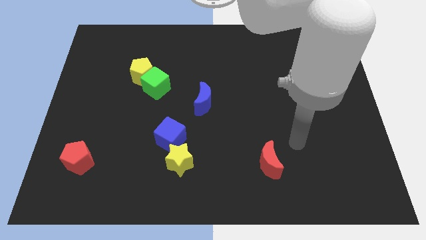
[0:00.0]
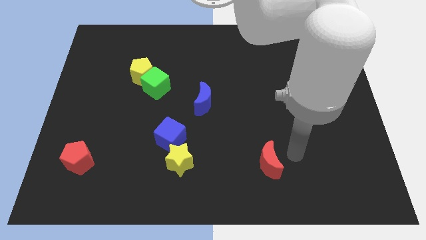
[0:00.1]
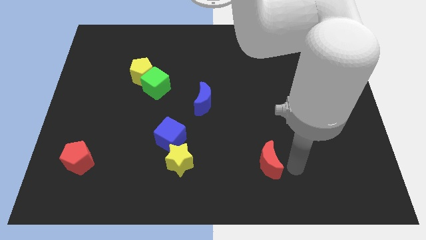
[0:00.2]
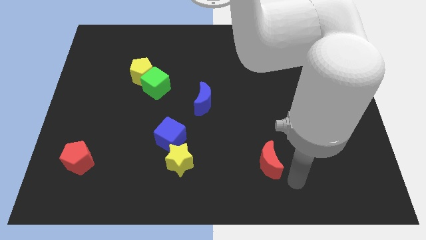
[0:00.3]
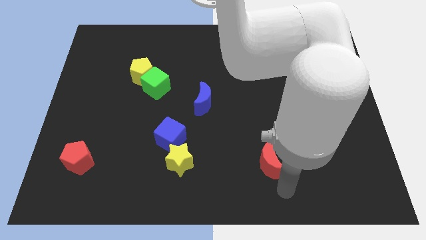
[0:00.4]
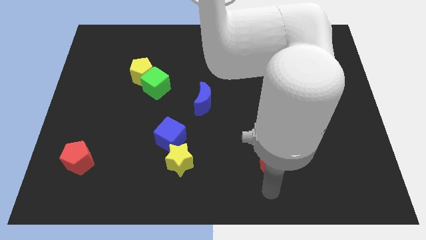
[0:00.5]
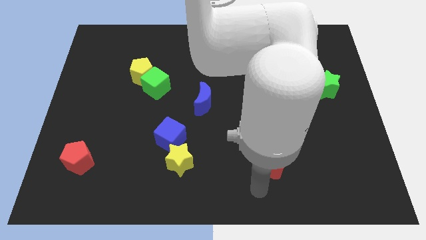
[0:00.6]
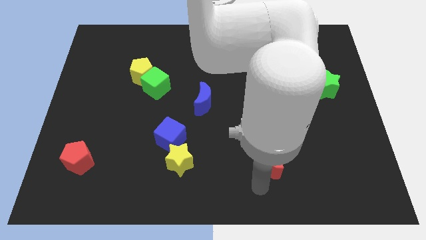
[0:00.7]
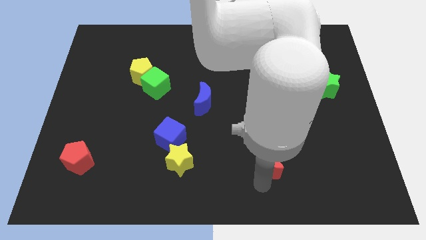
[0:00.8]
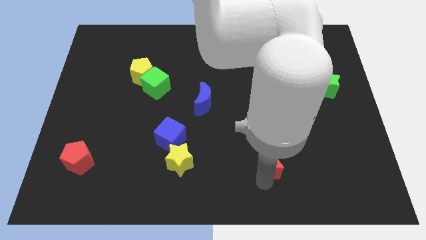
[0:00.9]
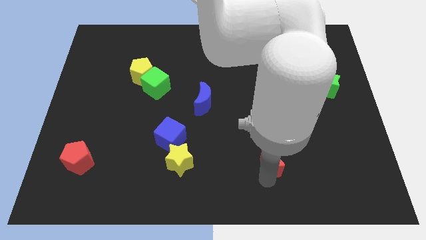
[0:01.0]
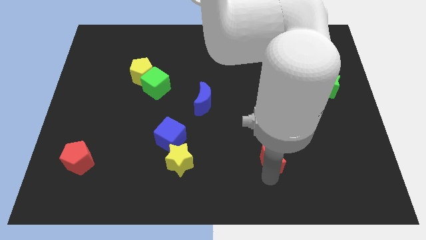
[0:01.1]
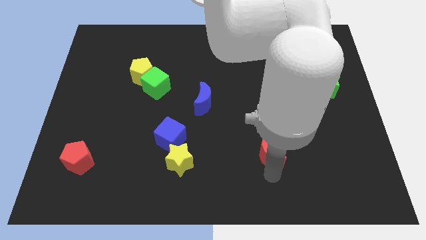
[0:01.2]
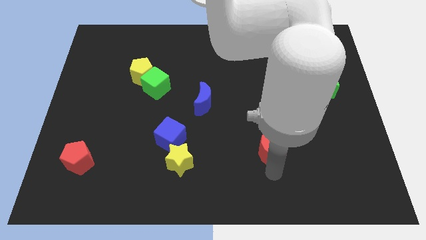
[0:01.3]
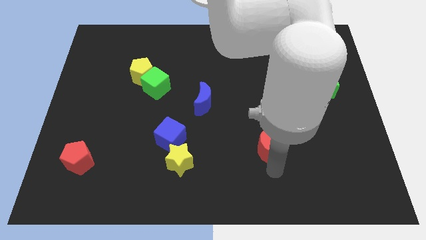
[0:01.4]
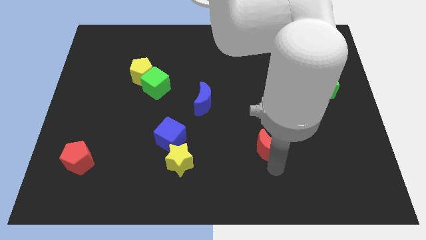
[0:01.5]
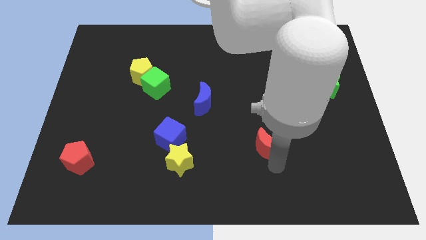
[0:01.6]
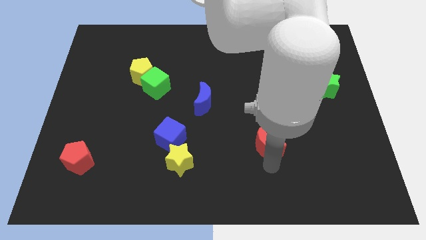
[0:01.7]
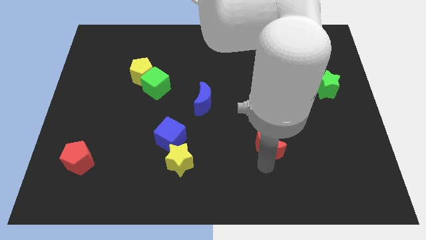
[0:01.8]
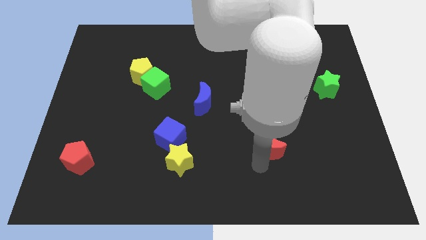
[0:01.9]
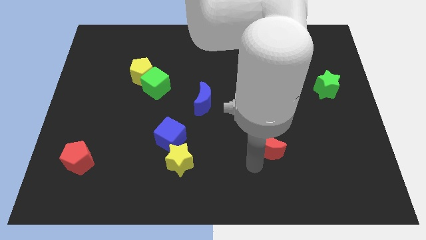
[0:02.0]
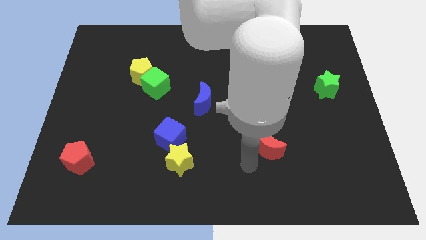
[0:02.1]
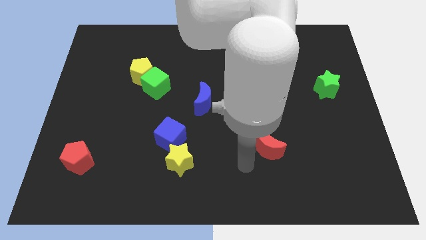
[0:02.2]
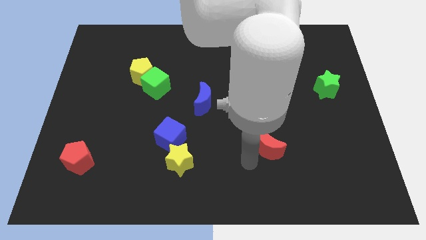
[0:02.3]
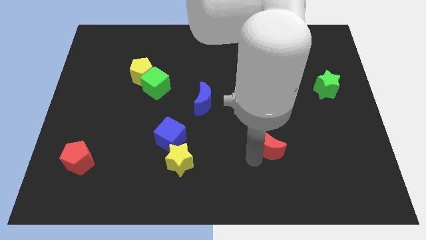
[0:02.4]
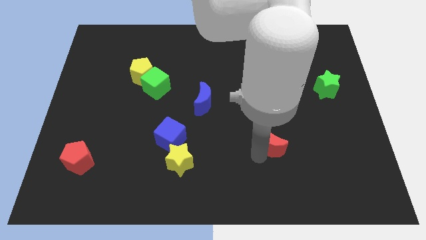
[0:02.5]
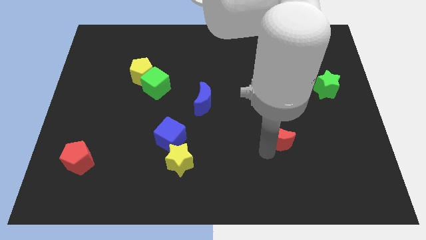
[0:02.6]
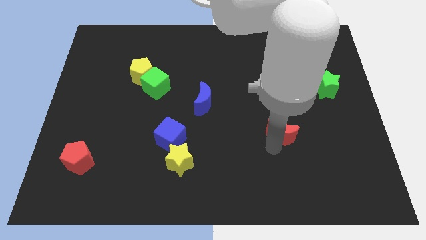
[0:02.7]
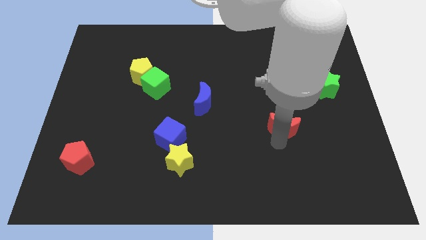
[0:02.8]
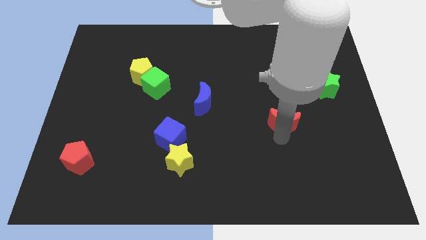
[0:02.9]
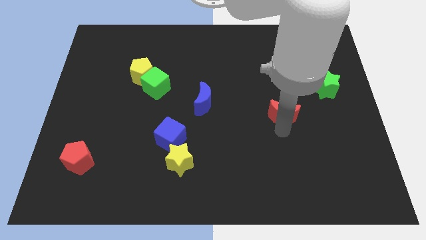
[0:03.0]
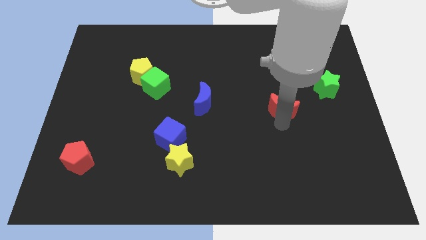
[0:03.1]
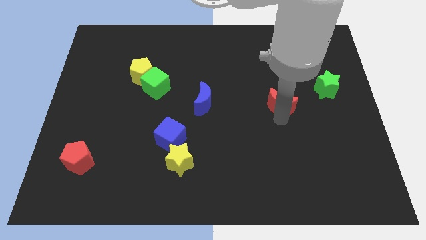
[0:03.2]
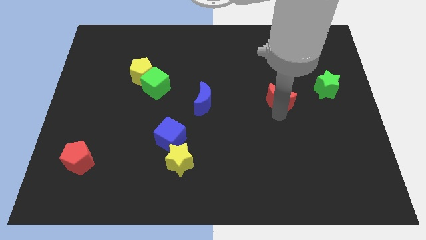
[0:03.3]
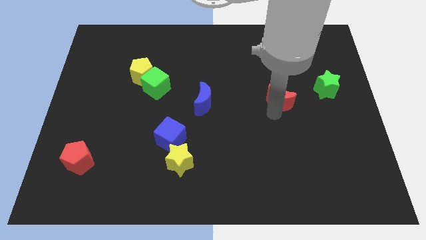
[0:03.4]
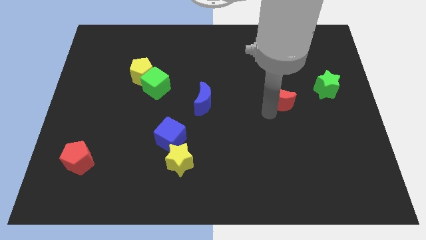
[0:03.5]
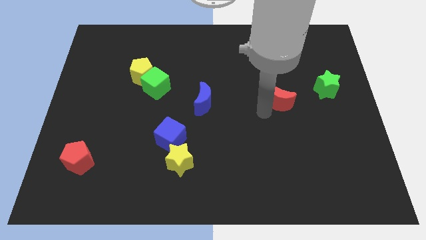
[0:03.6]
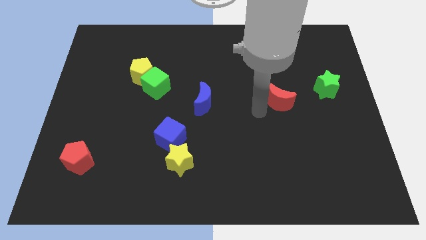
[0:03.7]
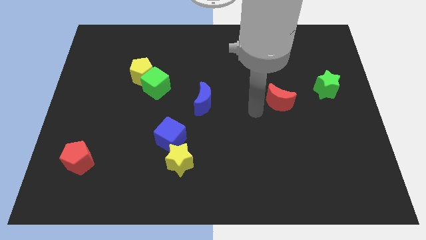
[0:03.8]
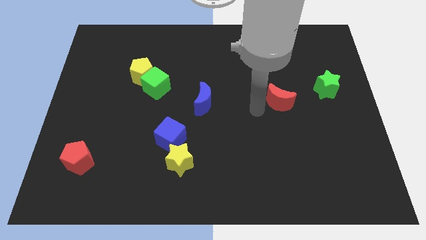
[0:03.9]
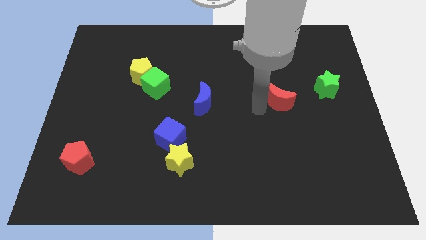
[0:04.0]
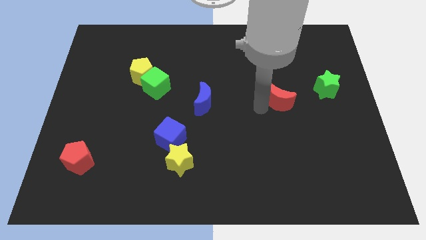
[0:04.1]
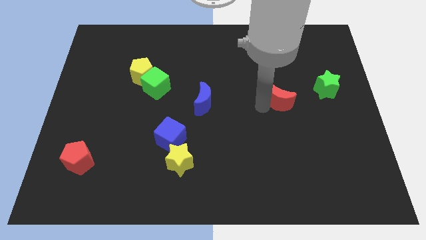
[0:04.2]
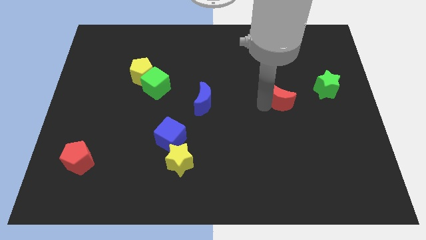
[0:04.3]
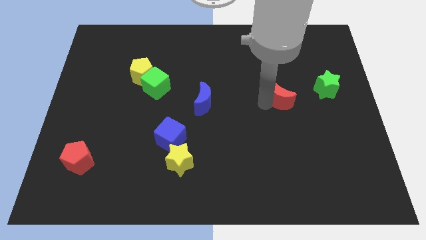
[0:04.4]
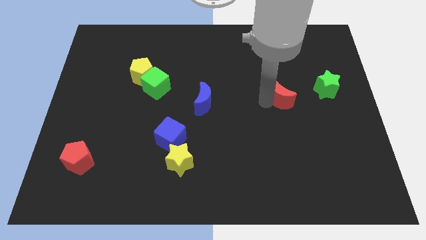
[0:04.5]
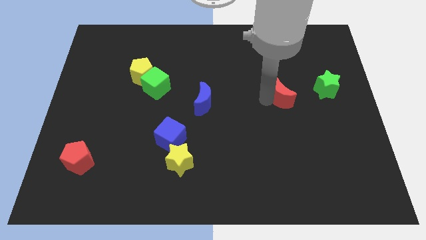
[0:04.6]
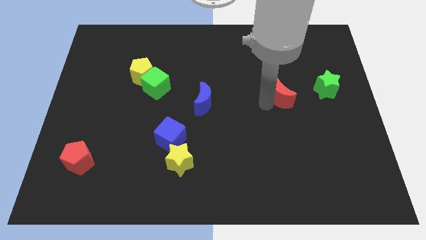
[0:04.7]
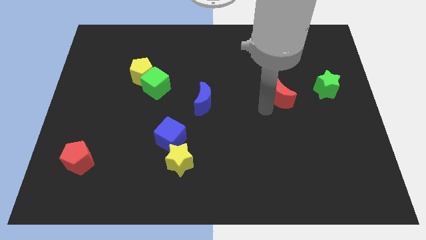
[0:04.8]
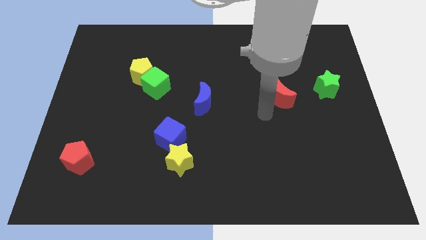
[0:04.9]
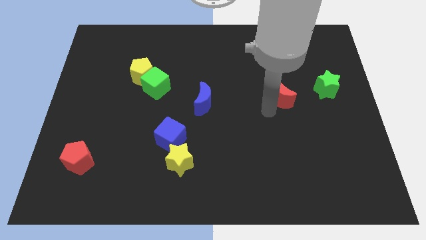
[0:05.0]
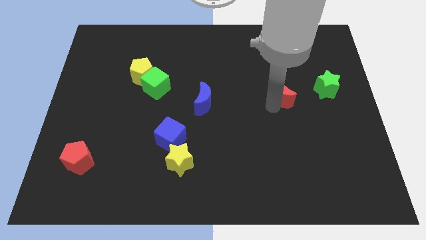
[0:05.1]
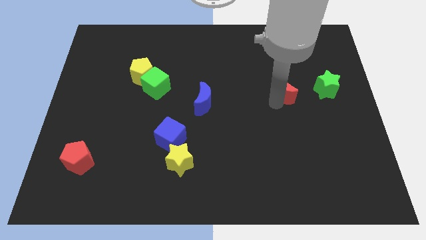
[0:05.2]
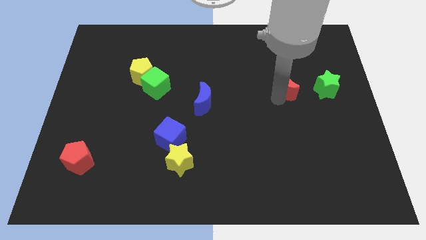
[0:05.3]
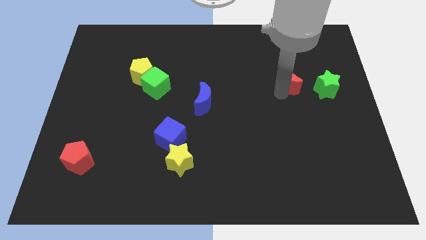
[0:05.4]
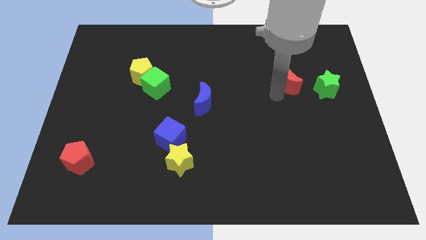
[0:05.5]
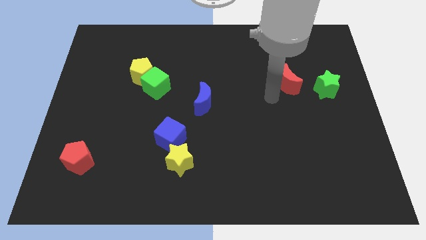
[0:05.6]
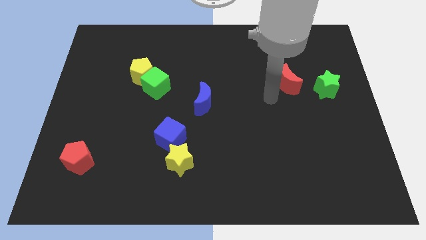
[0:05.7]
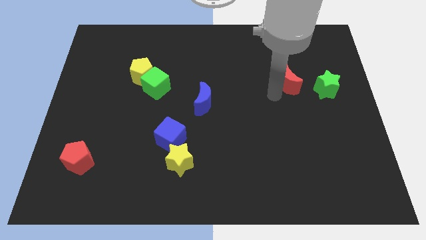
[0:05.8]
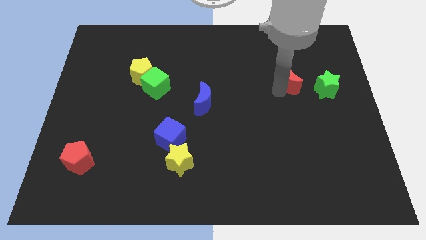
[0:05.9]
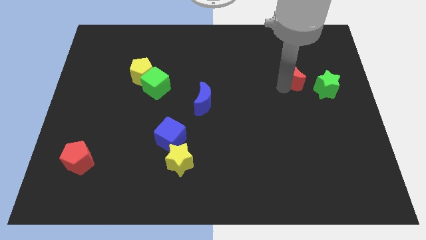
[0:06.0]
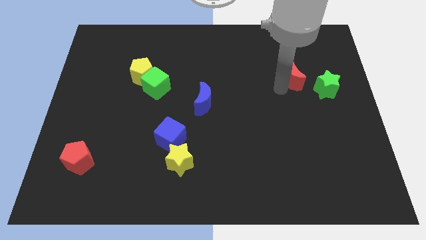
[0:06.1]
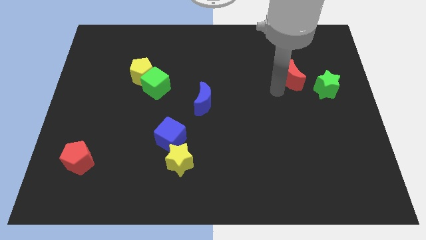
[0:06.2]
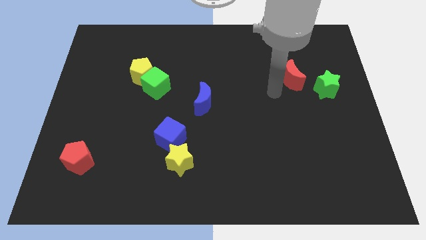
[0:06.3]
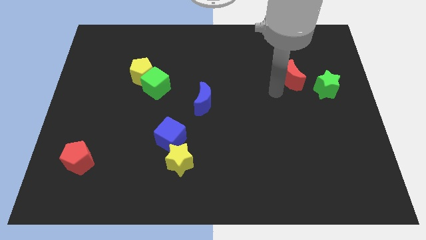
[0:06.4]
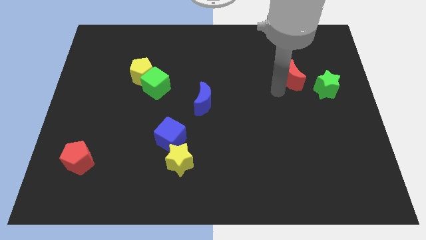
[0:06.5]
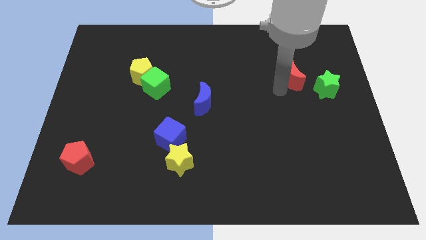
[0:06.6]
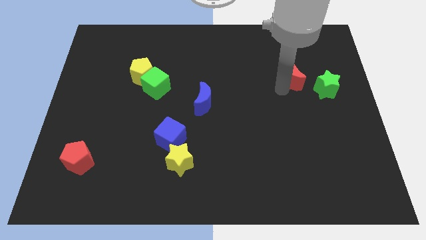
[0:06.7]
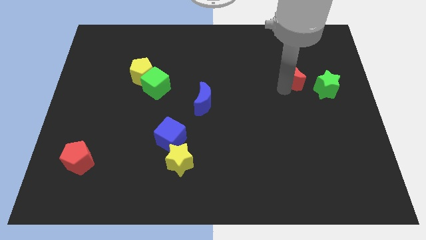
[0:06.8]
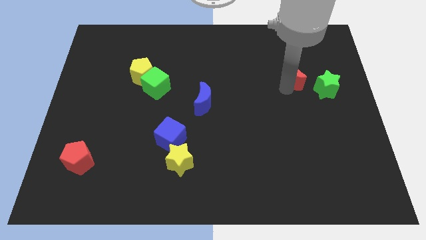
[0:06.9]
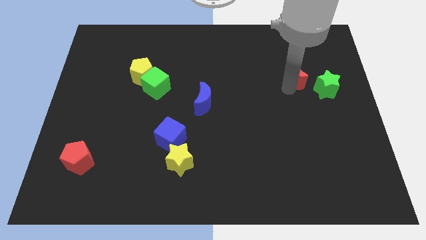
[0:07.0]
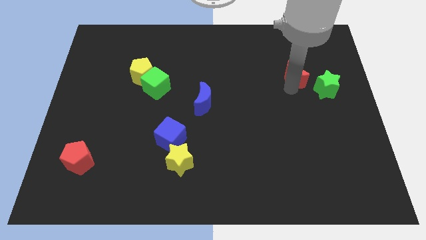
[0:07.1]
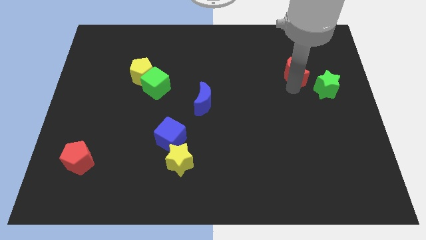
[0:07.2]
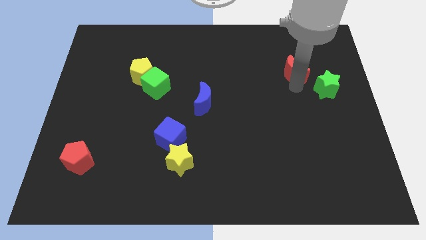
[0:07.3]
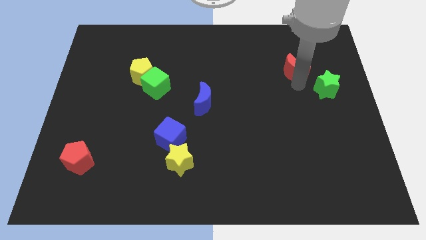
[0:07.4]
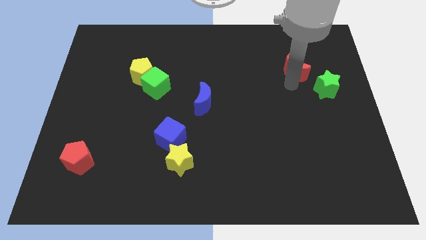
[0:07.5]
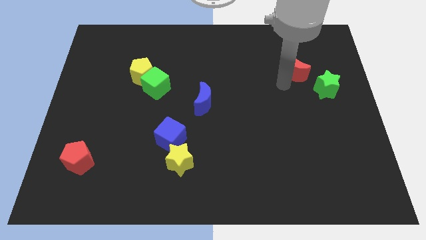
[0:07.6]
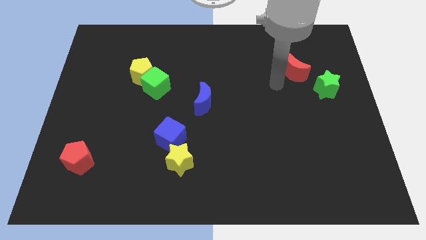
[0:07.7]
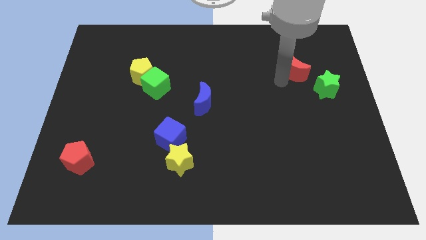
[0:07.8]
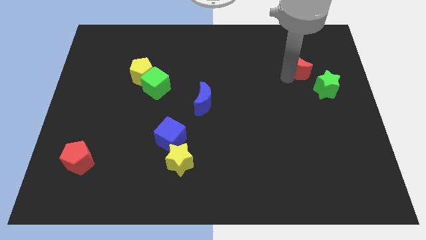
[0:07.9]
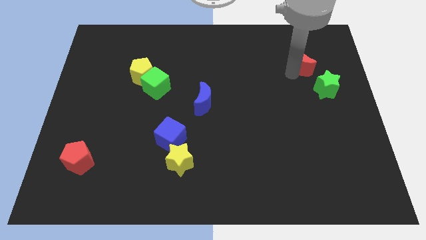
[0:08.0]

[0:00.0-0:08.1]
move the red moon to the top side of the green star
